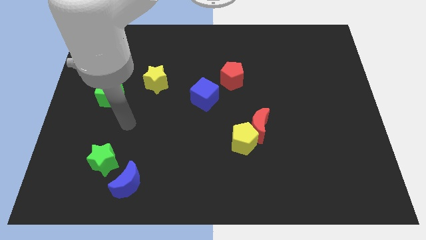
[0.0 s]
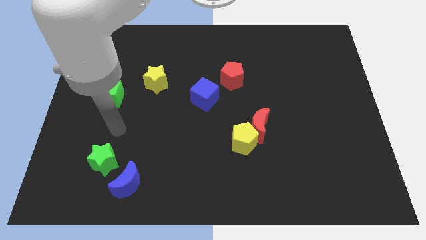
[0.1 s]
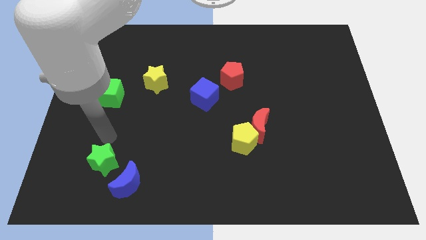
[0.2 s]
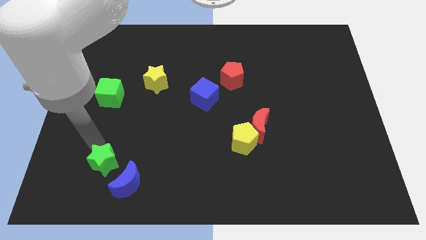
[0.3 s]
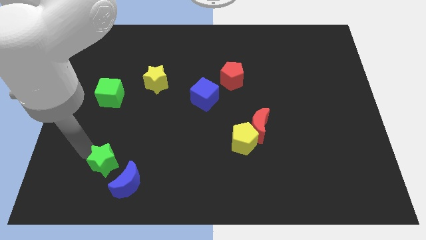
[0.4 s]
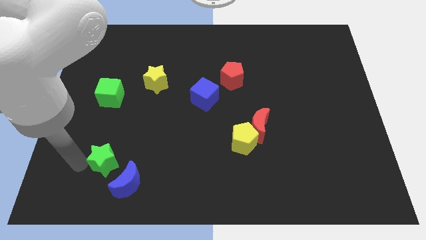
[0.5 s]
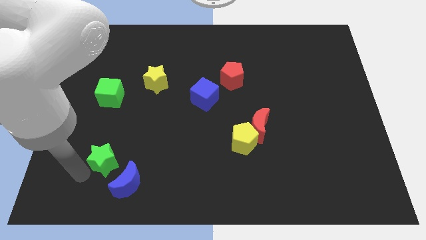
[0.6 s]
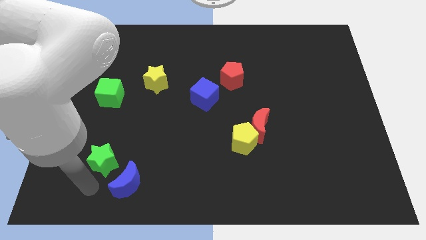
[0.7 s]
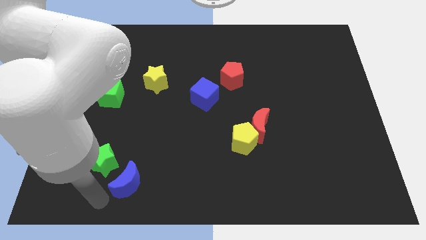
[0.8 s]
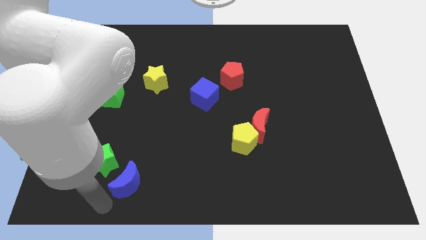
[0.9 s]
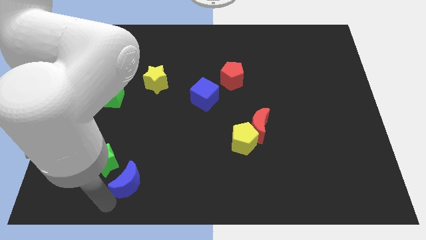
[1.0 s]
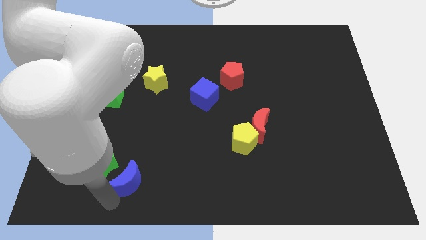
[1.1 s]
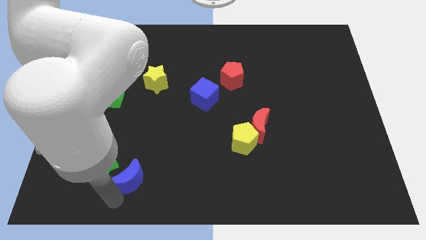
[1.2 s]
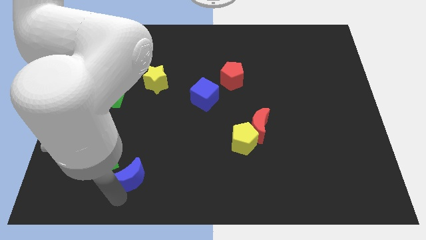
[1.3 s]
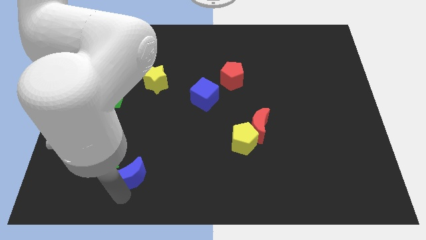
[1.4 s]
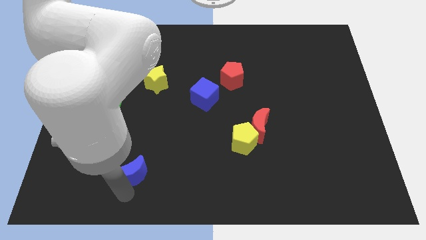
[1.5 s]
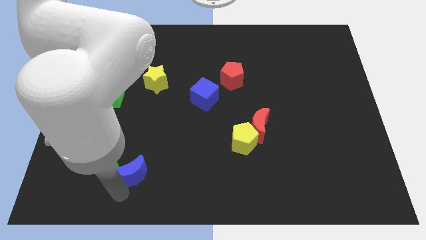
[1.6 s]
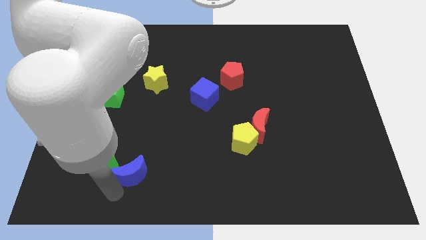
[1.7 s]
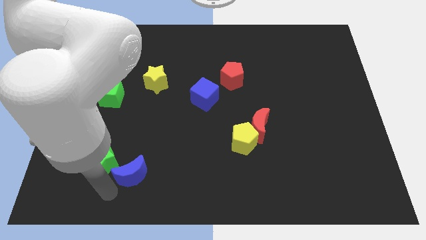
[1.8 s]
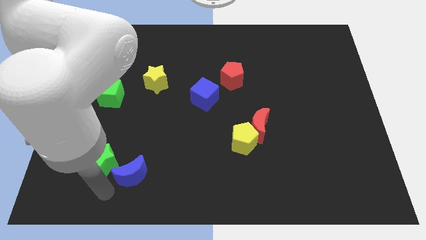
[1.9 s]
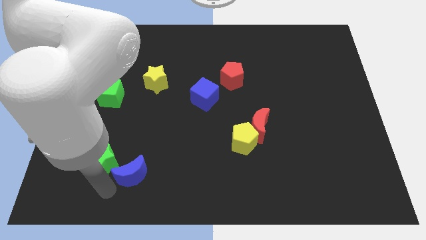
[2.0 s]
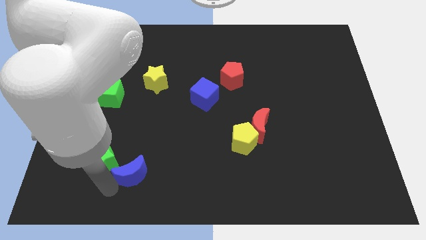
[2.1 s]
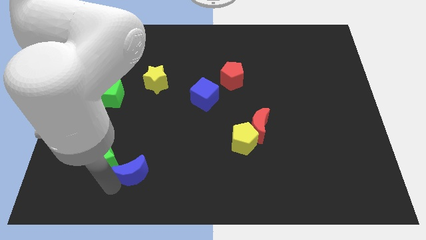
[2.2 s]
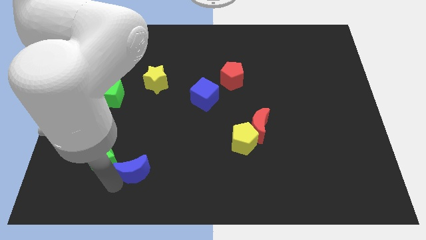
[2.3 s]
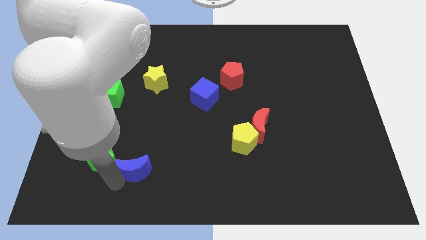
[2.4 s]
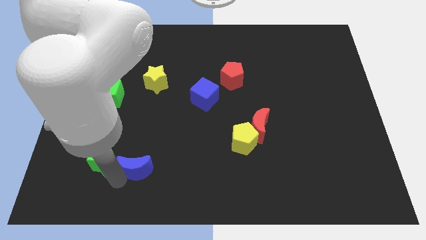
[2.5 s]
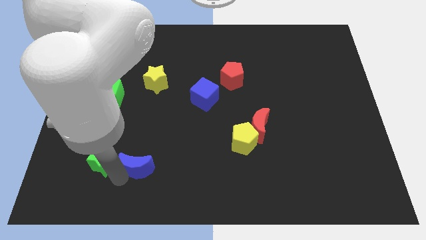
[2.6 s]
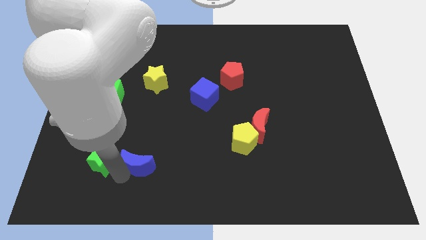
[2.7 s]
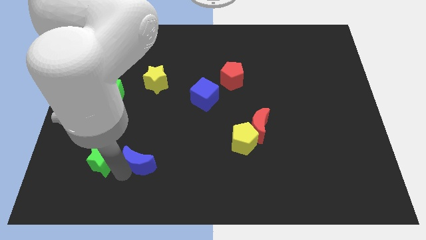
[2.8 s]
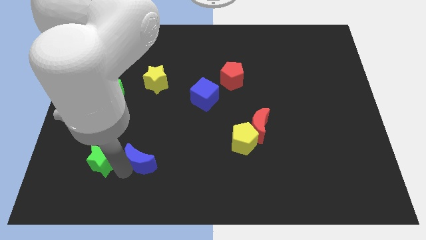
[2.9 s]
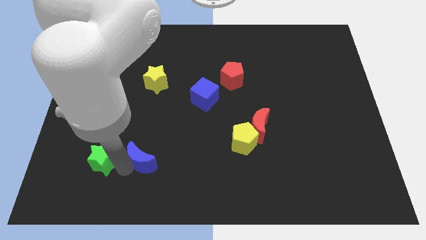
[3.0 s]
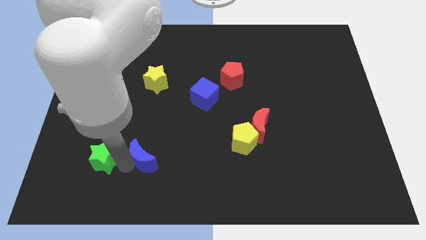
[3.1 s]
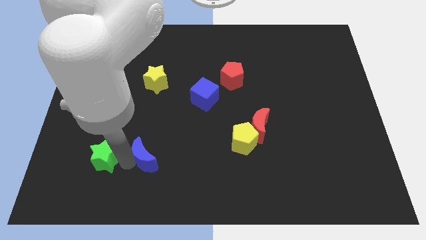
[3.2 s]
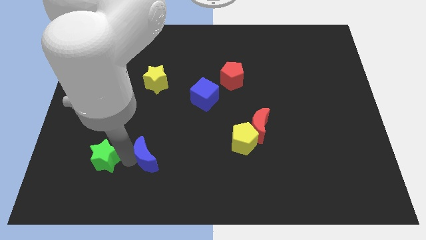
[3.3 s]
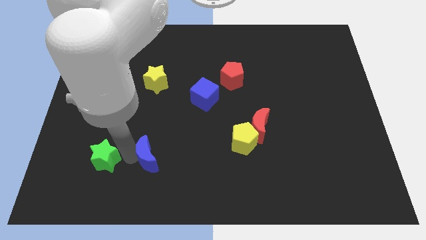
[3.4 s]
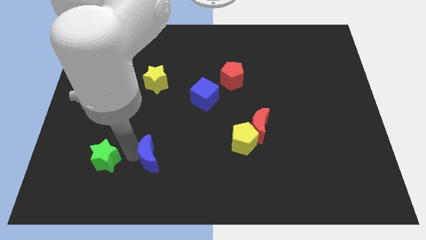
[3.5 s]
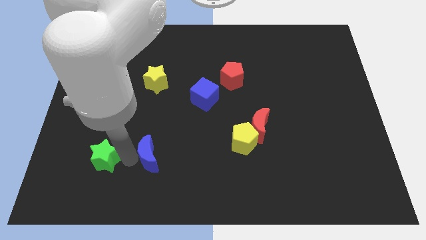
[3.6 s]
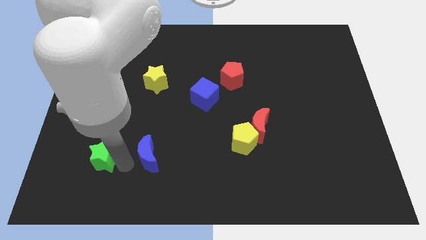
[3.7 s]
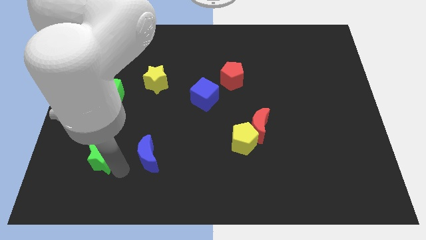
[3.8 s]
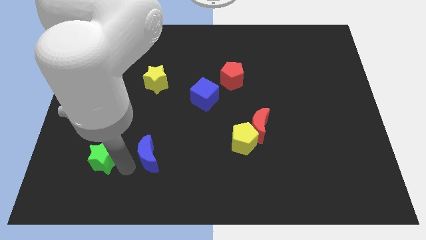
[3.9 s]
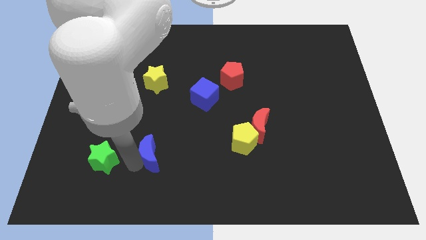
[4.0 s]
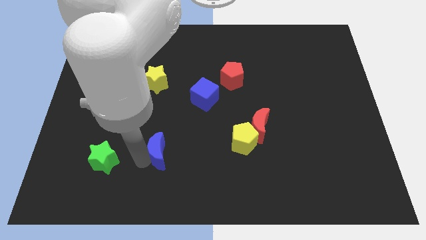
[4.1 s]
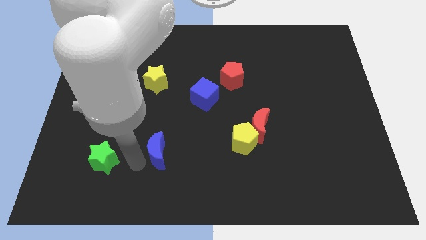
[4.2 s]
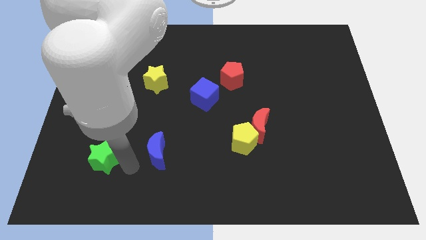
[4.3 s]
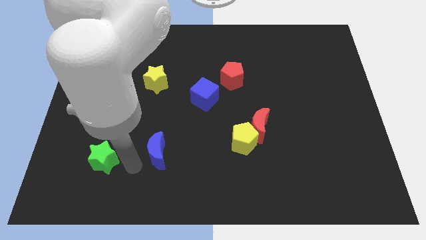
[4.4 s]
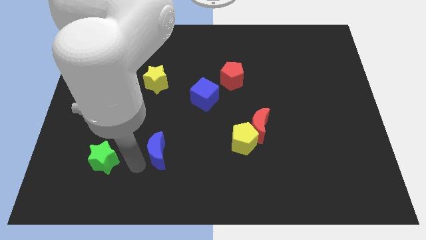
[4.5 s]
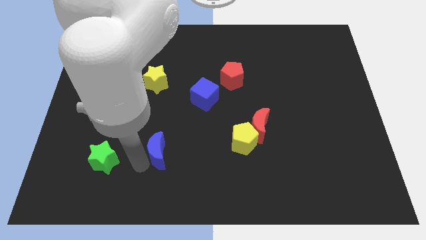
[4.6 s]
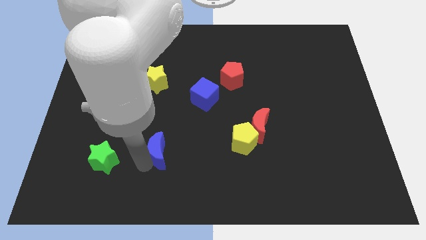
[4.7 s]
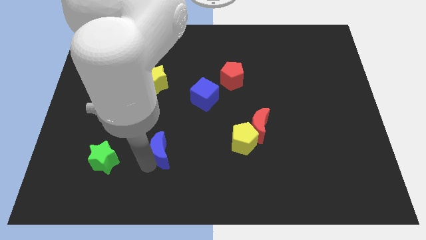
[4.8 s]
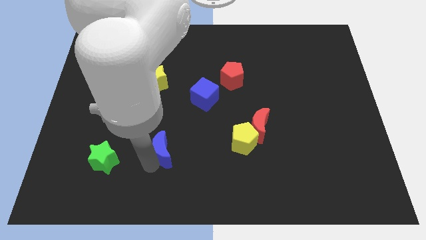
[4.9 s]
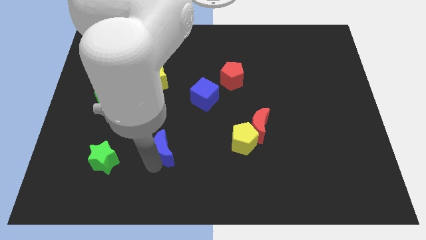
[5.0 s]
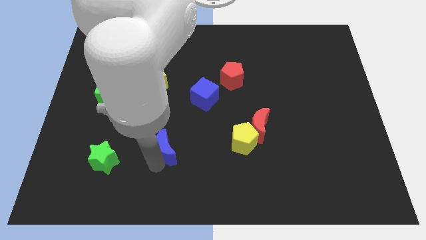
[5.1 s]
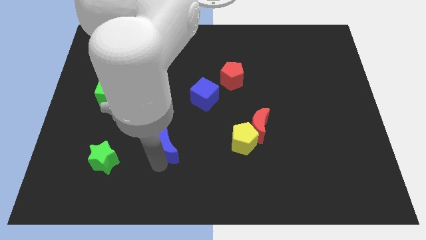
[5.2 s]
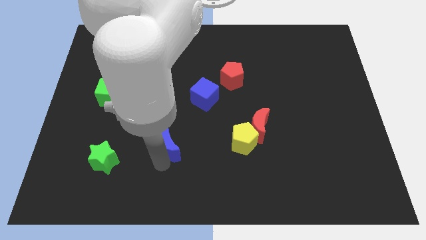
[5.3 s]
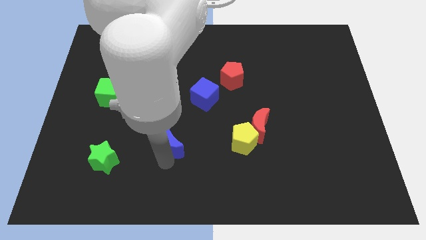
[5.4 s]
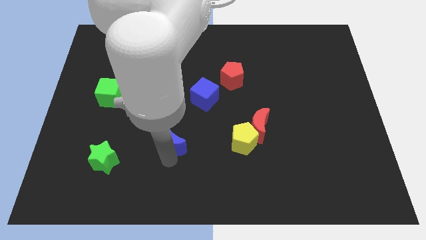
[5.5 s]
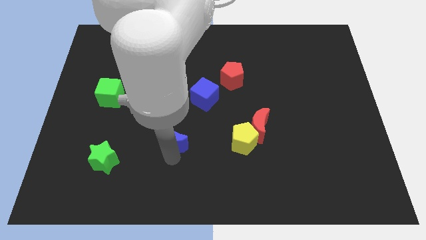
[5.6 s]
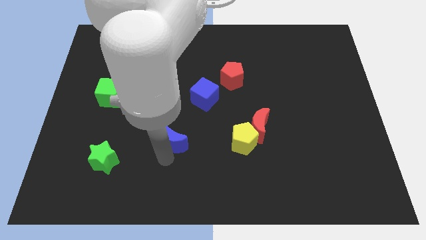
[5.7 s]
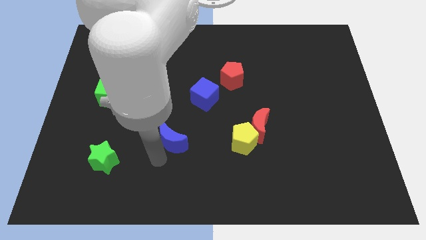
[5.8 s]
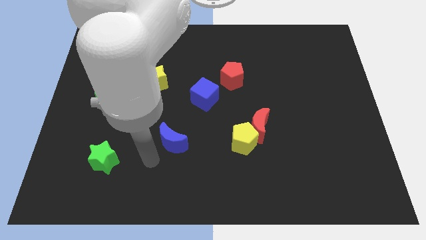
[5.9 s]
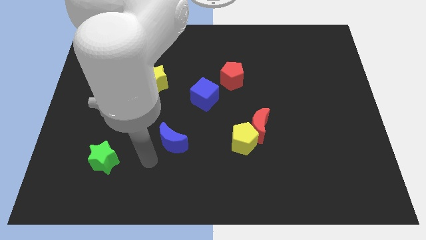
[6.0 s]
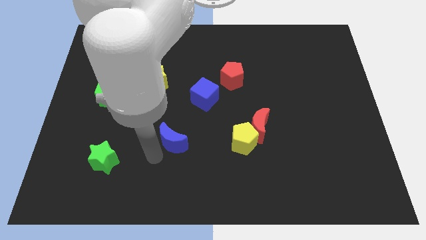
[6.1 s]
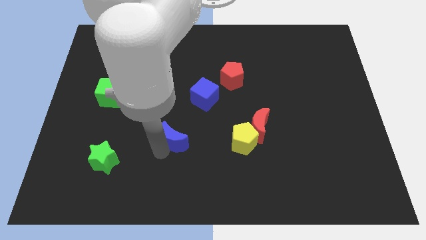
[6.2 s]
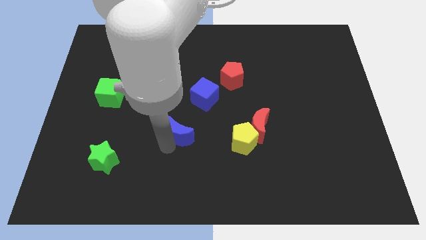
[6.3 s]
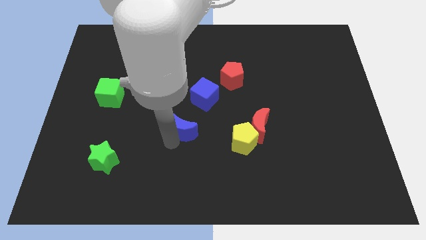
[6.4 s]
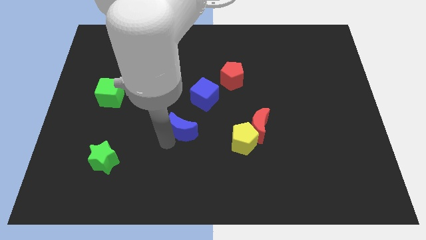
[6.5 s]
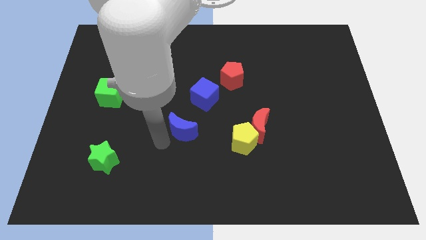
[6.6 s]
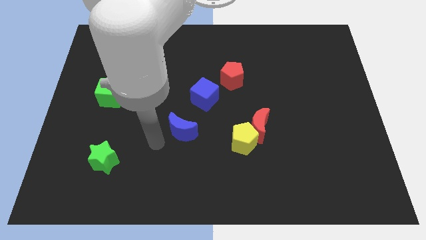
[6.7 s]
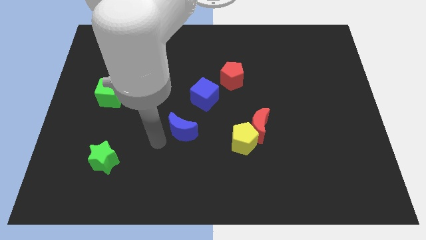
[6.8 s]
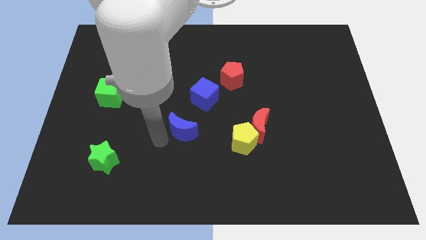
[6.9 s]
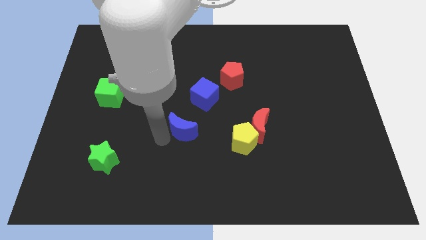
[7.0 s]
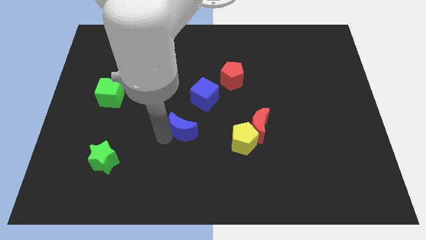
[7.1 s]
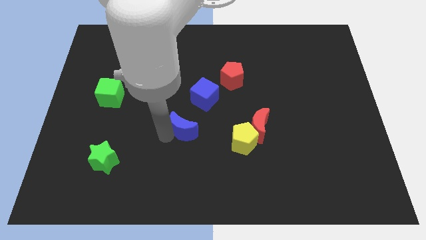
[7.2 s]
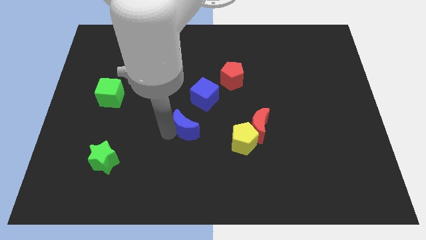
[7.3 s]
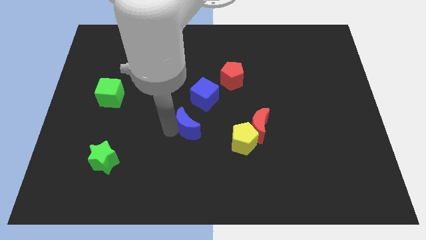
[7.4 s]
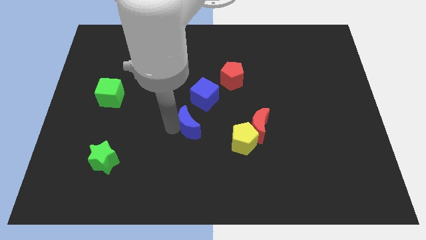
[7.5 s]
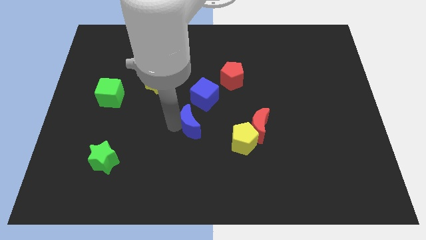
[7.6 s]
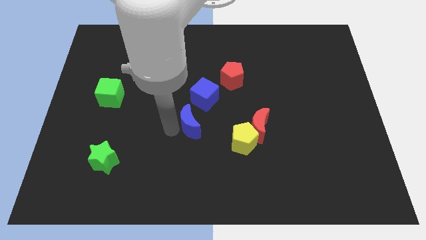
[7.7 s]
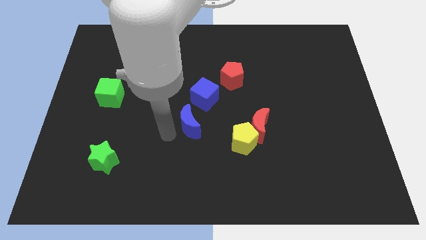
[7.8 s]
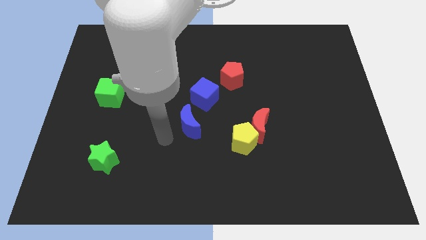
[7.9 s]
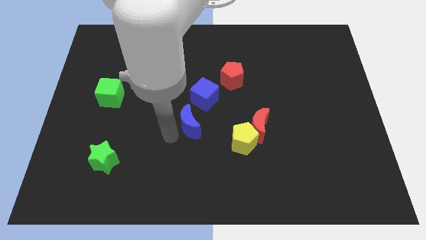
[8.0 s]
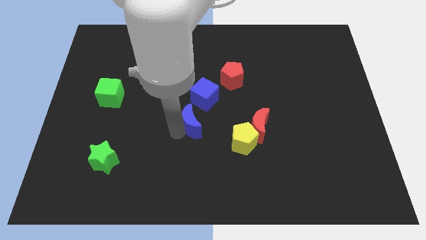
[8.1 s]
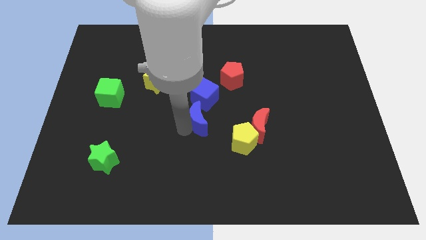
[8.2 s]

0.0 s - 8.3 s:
move the blue moon diagonally upwards and right
